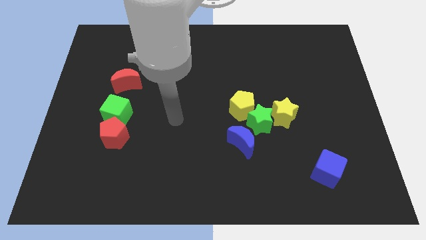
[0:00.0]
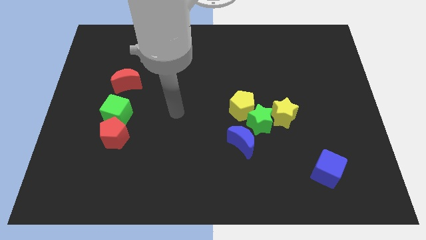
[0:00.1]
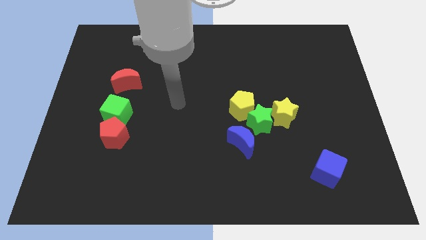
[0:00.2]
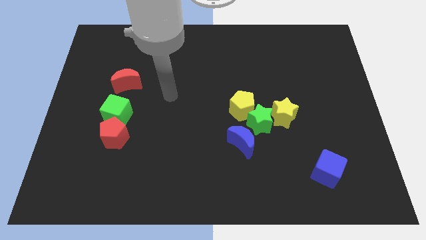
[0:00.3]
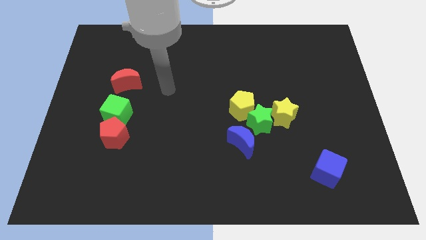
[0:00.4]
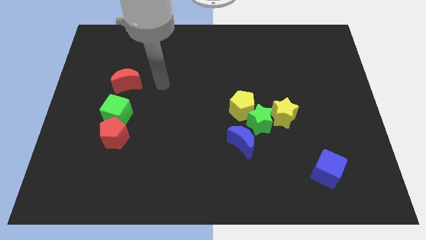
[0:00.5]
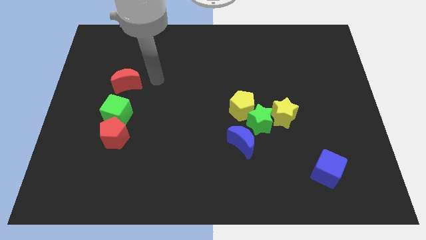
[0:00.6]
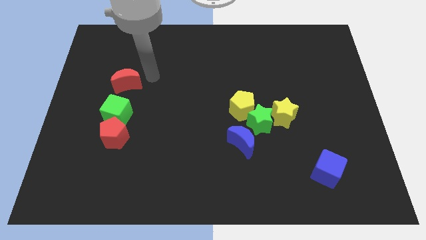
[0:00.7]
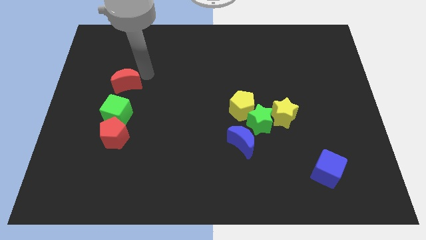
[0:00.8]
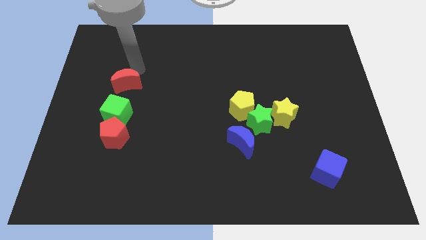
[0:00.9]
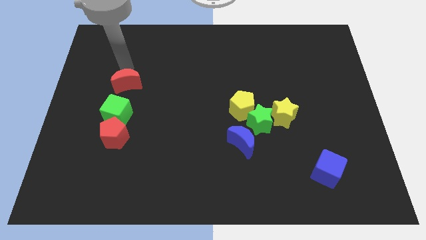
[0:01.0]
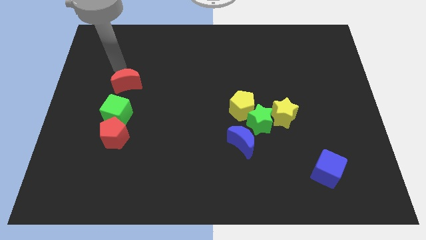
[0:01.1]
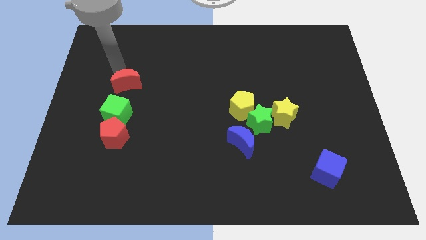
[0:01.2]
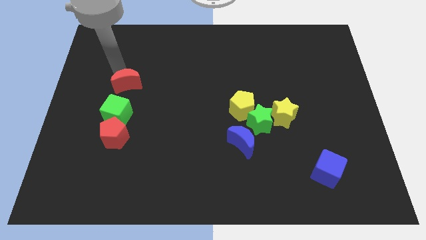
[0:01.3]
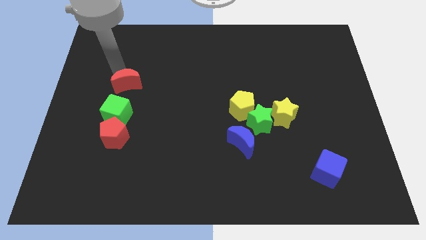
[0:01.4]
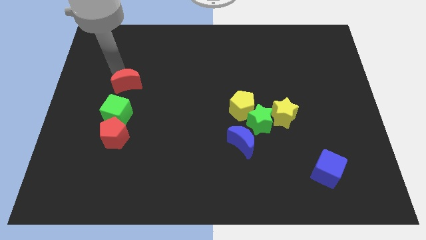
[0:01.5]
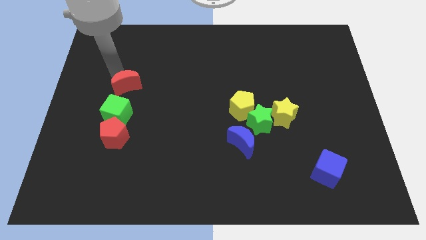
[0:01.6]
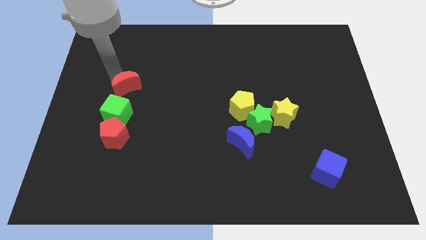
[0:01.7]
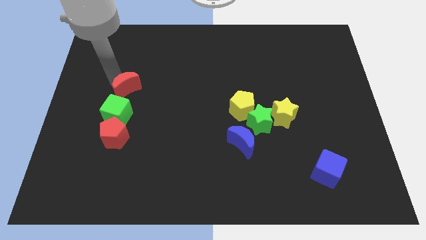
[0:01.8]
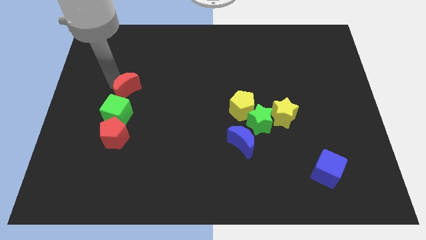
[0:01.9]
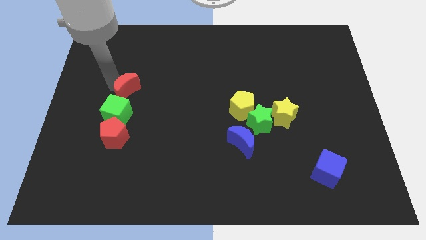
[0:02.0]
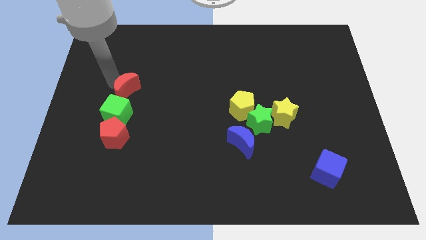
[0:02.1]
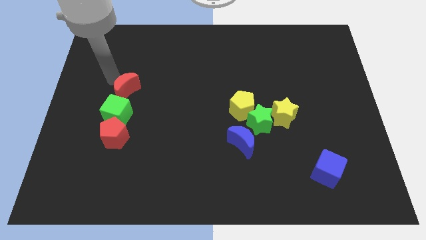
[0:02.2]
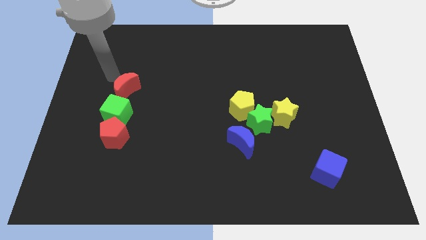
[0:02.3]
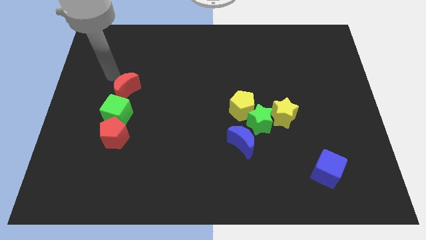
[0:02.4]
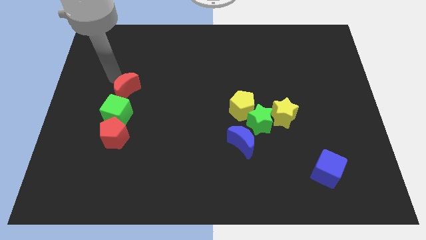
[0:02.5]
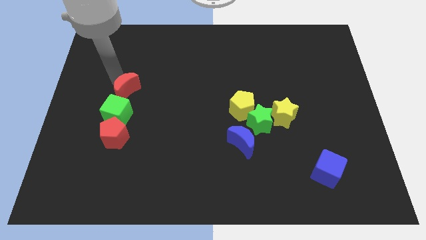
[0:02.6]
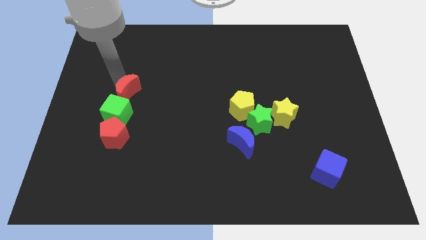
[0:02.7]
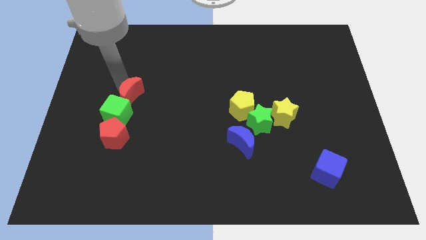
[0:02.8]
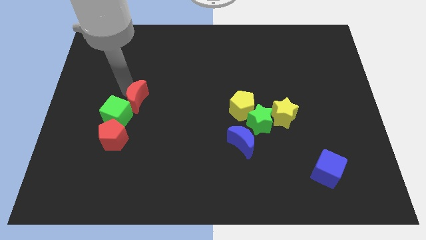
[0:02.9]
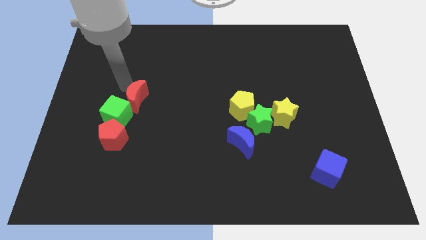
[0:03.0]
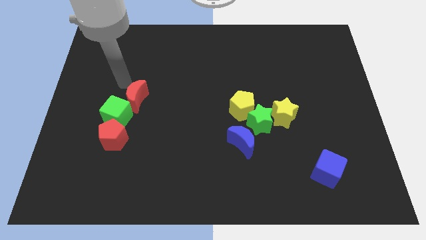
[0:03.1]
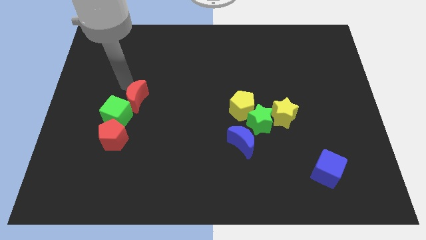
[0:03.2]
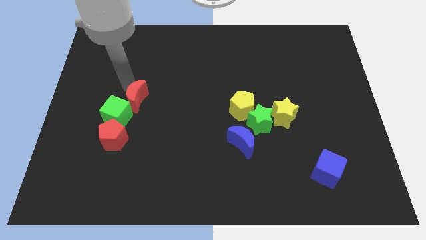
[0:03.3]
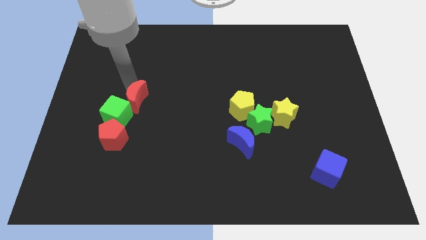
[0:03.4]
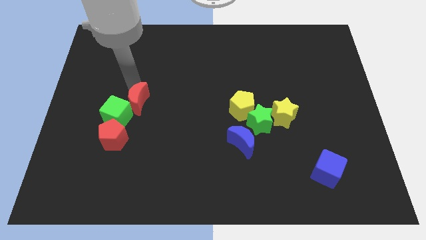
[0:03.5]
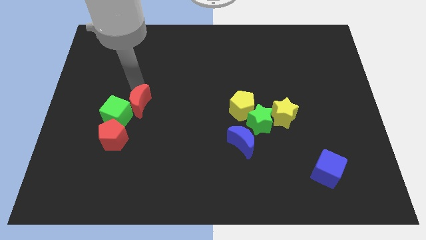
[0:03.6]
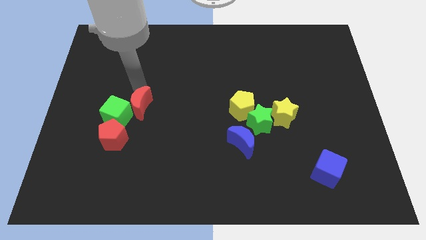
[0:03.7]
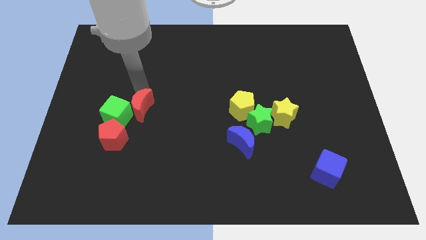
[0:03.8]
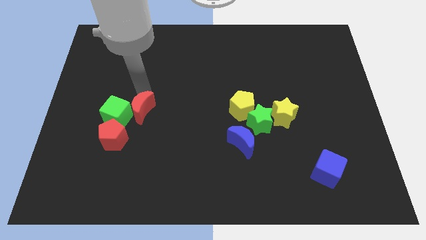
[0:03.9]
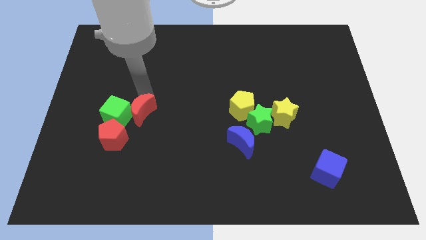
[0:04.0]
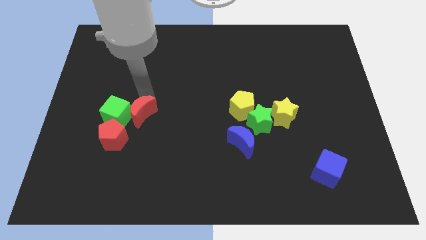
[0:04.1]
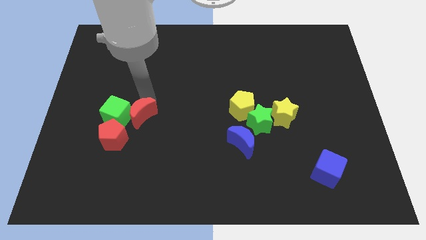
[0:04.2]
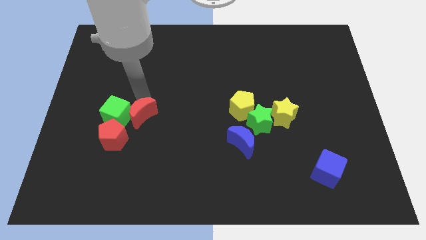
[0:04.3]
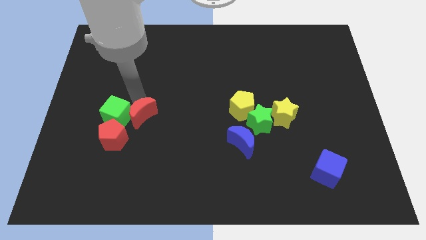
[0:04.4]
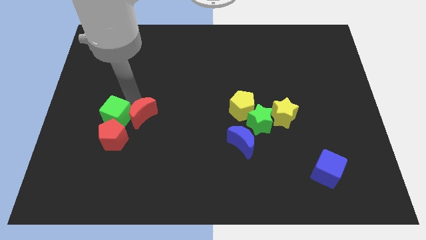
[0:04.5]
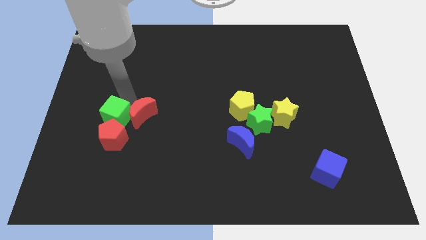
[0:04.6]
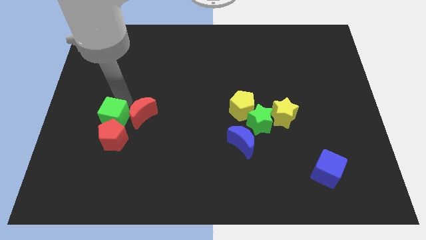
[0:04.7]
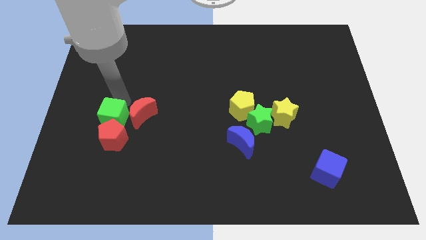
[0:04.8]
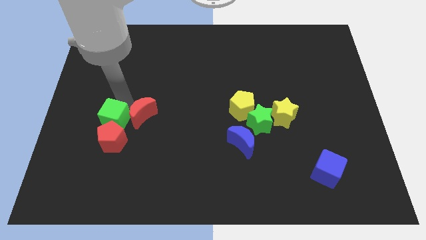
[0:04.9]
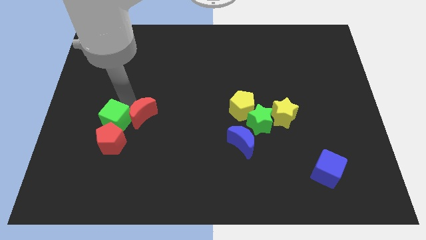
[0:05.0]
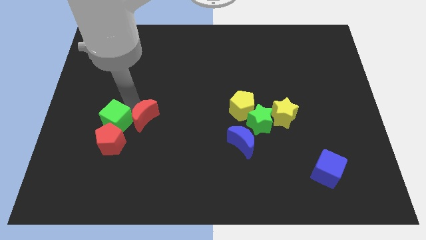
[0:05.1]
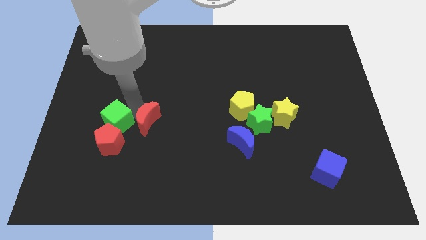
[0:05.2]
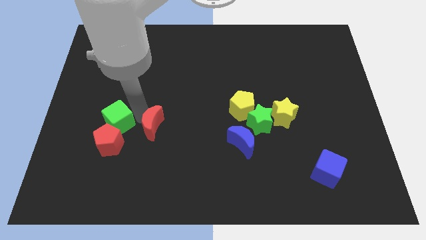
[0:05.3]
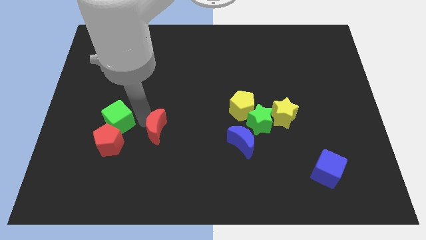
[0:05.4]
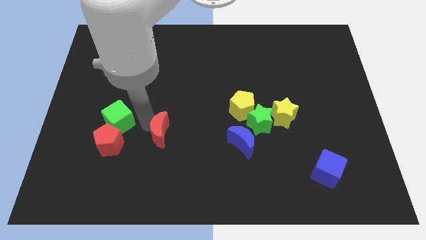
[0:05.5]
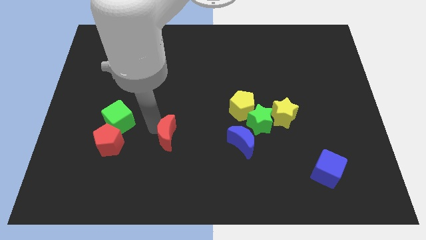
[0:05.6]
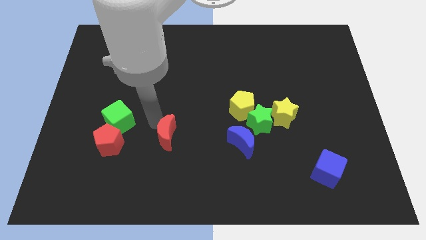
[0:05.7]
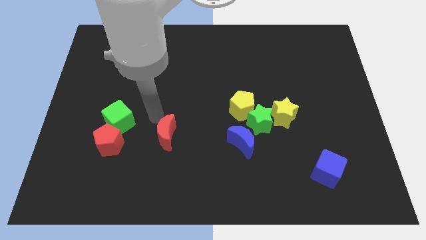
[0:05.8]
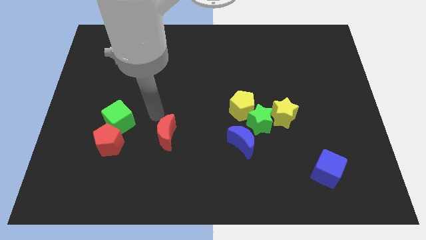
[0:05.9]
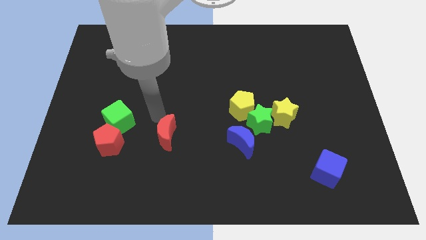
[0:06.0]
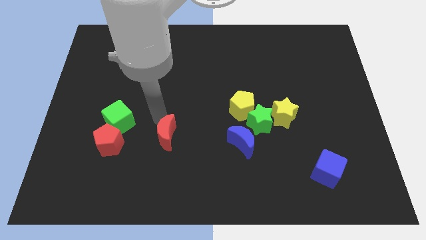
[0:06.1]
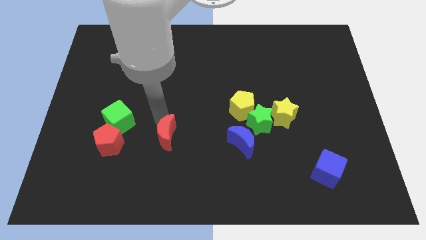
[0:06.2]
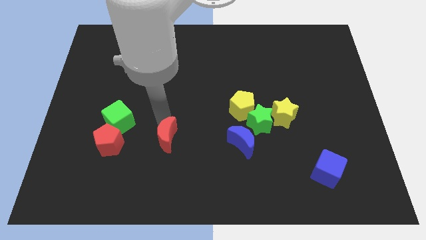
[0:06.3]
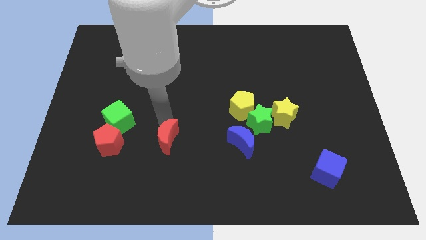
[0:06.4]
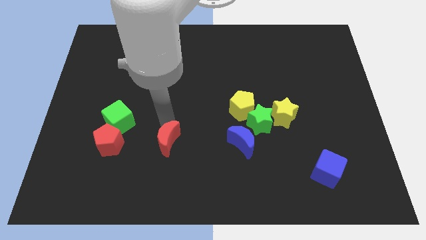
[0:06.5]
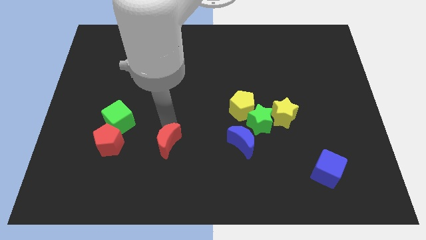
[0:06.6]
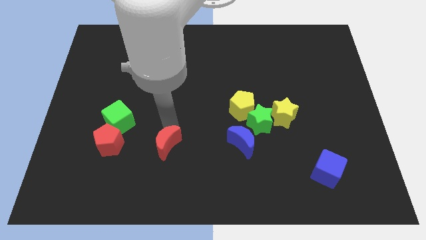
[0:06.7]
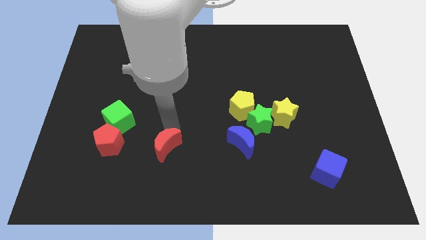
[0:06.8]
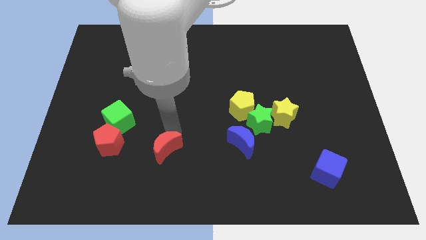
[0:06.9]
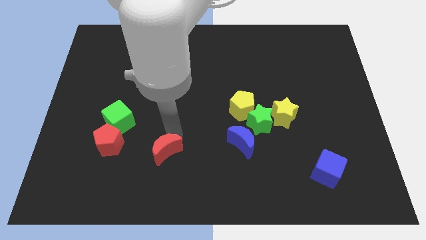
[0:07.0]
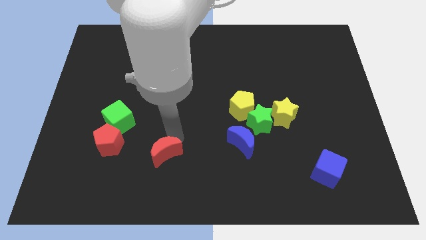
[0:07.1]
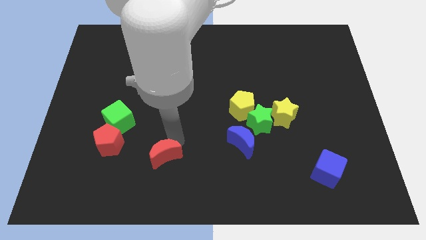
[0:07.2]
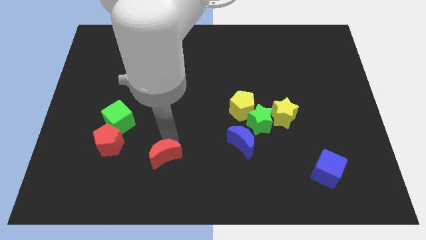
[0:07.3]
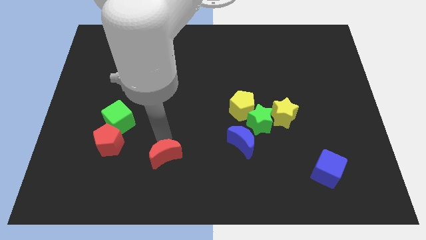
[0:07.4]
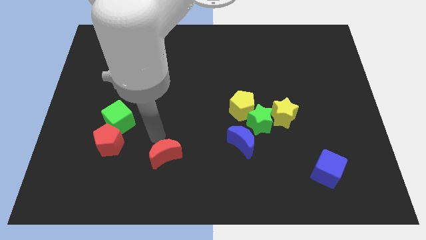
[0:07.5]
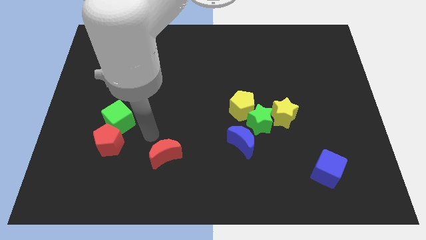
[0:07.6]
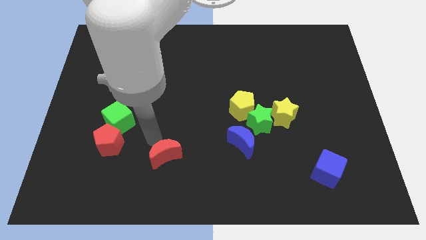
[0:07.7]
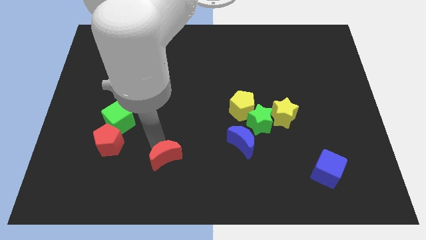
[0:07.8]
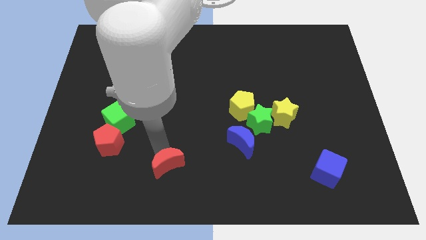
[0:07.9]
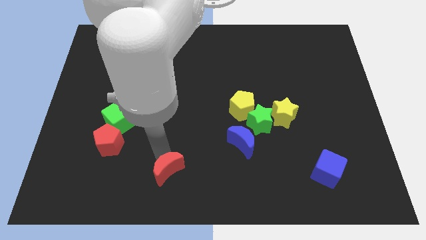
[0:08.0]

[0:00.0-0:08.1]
push the red moon to the bottom
